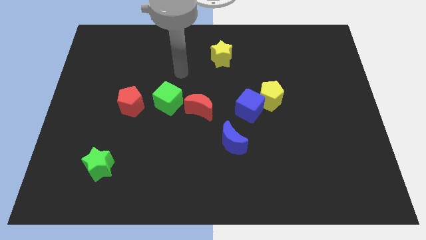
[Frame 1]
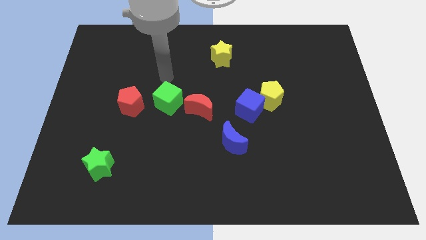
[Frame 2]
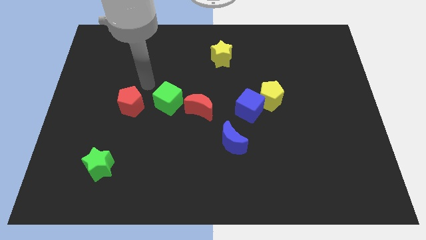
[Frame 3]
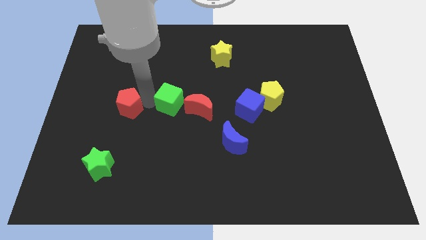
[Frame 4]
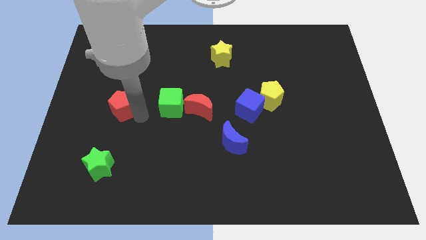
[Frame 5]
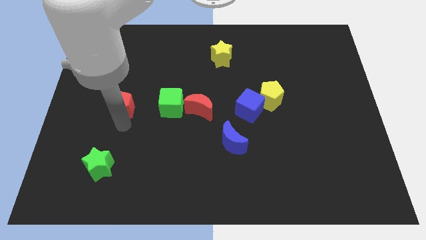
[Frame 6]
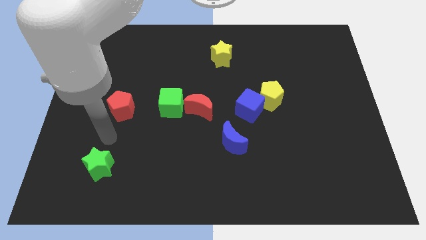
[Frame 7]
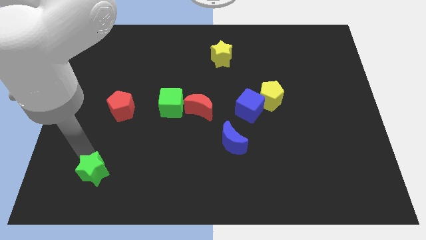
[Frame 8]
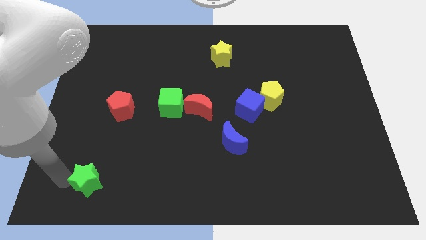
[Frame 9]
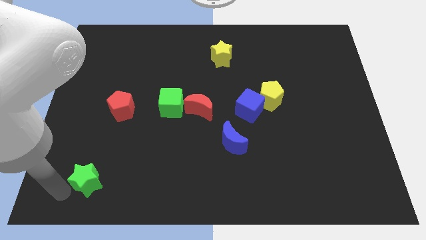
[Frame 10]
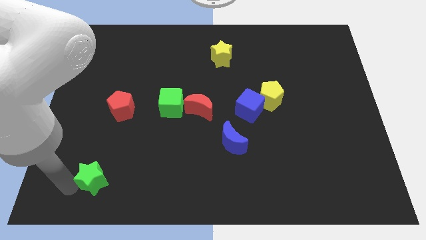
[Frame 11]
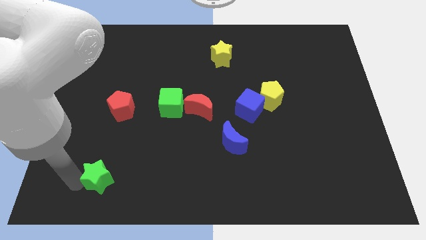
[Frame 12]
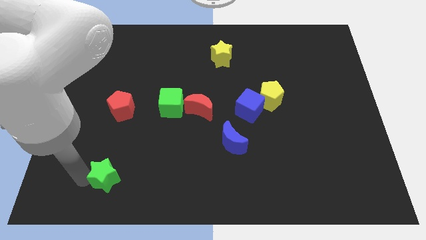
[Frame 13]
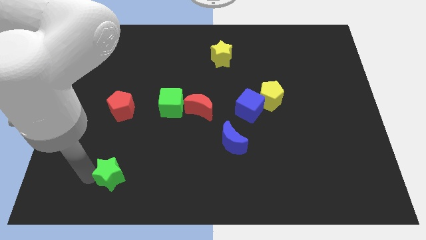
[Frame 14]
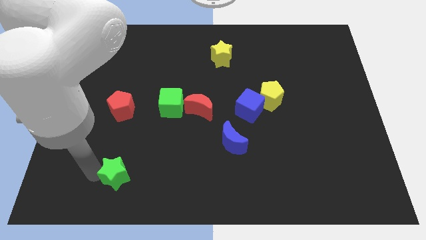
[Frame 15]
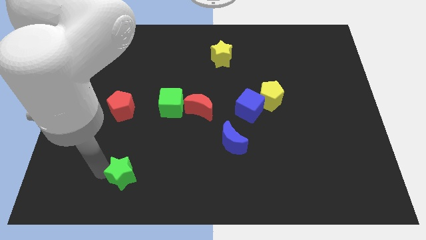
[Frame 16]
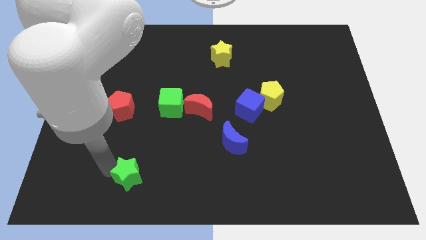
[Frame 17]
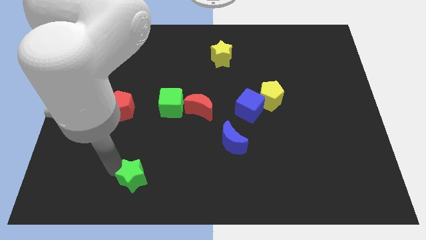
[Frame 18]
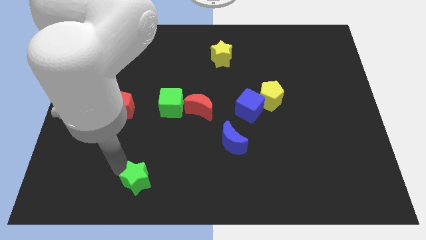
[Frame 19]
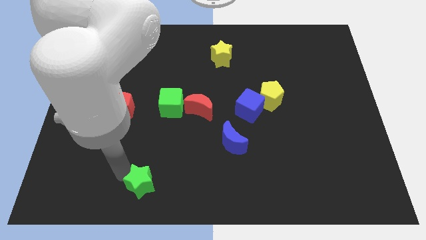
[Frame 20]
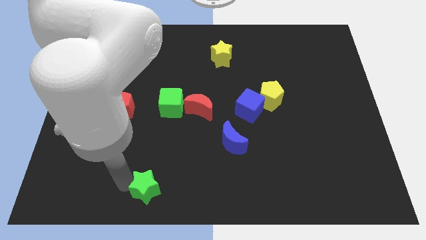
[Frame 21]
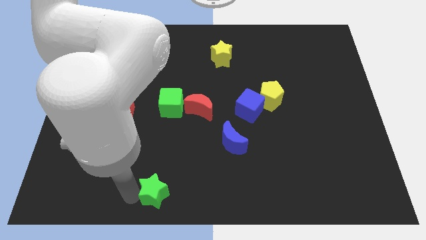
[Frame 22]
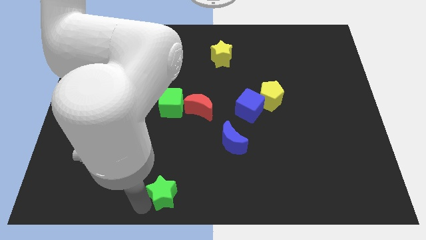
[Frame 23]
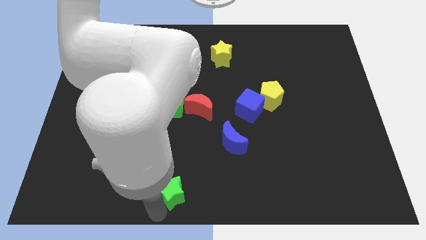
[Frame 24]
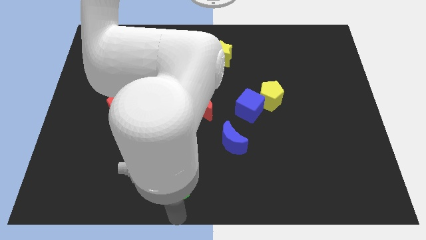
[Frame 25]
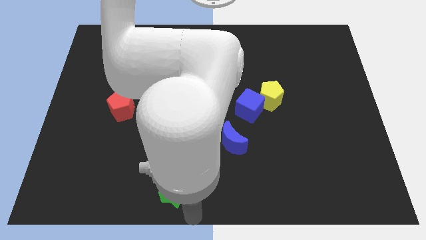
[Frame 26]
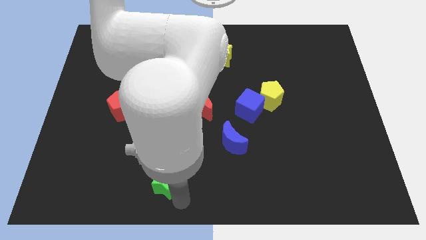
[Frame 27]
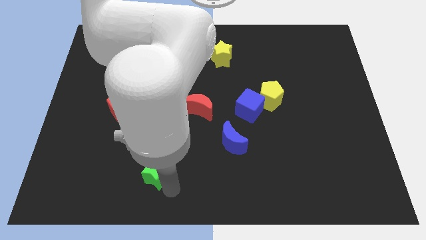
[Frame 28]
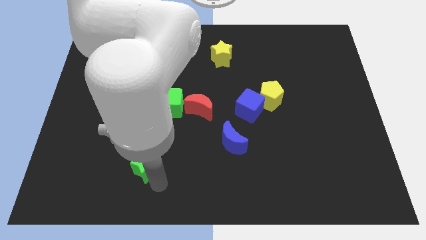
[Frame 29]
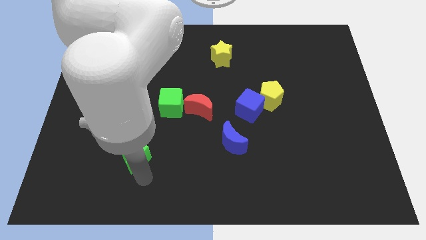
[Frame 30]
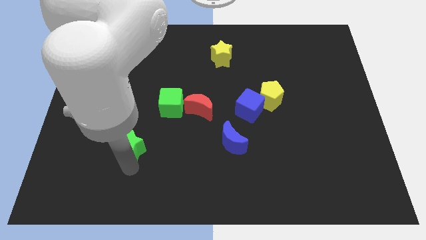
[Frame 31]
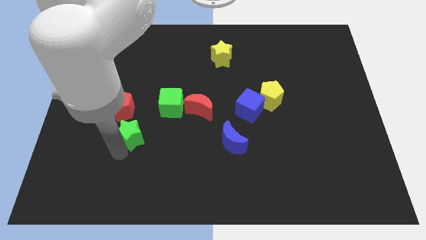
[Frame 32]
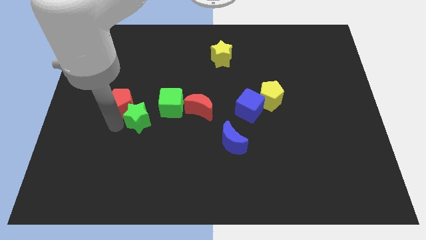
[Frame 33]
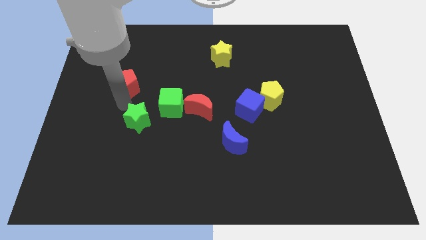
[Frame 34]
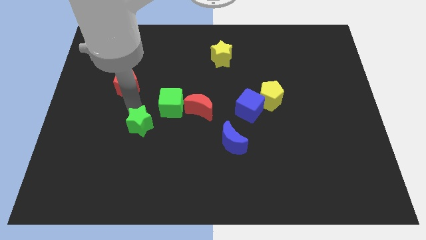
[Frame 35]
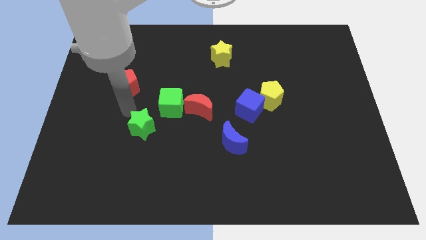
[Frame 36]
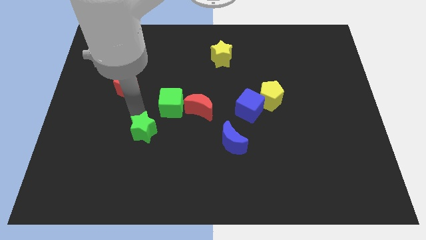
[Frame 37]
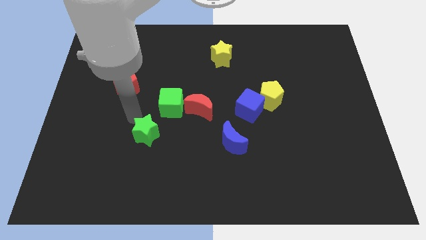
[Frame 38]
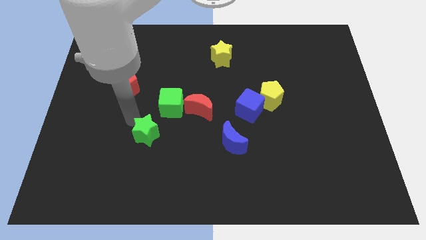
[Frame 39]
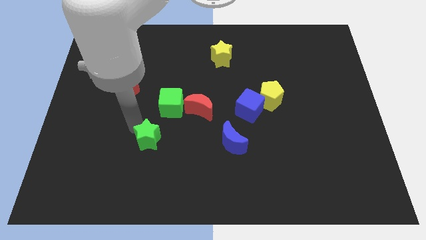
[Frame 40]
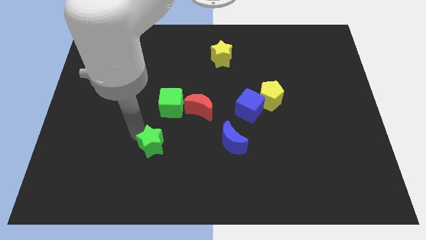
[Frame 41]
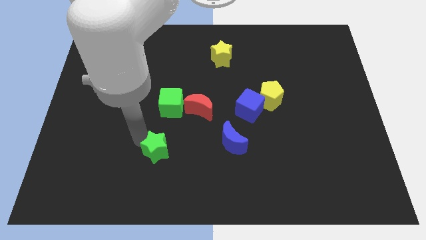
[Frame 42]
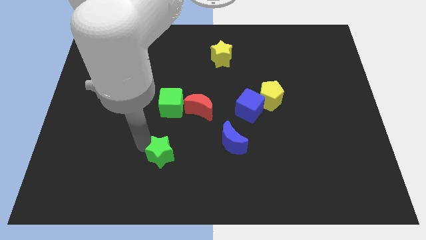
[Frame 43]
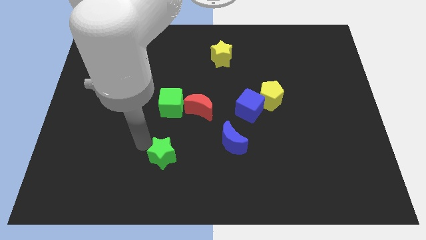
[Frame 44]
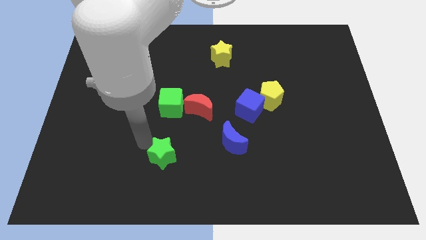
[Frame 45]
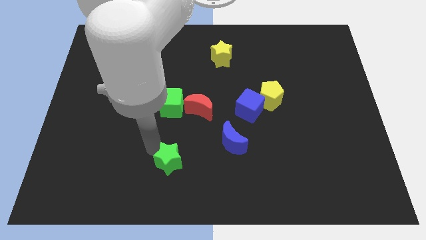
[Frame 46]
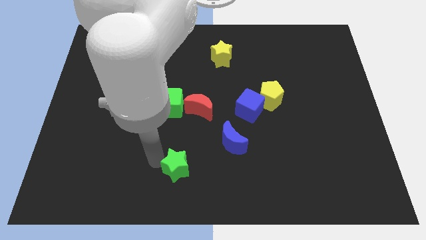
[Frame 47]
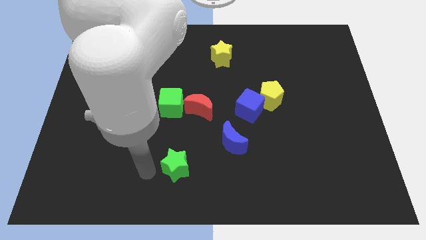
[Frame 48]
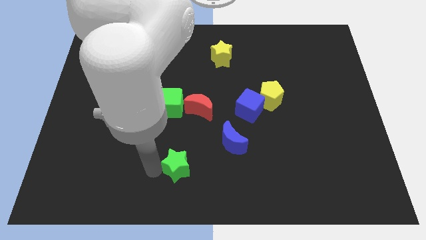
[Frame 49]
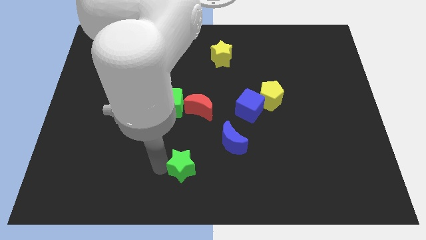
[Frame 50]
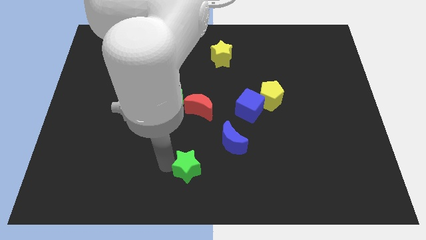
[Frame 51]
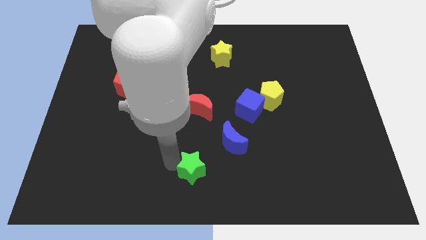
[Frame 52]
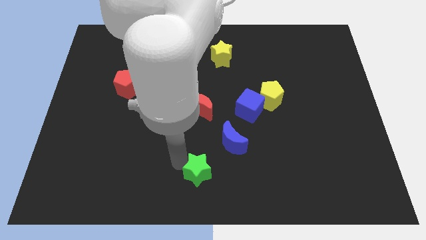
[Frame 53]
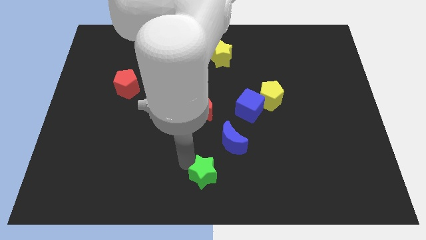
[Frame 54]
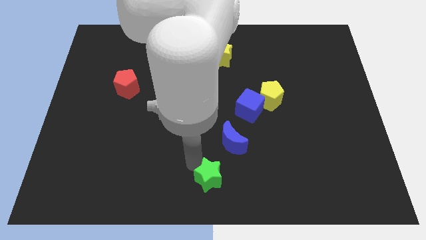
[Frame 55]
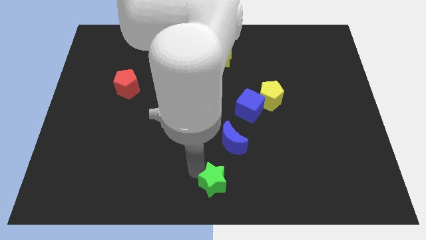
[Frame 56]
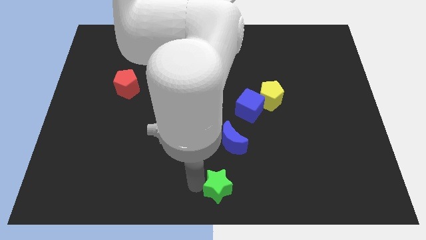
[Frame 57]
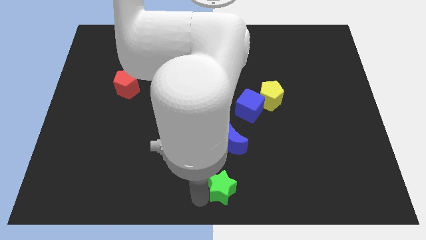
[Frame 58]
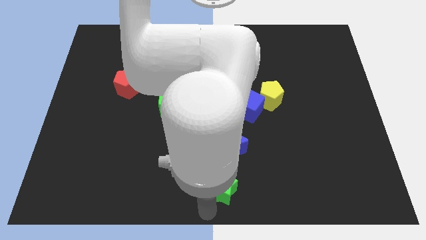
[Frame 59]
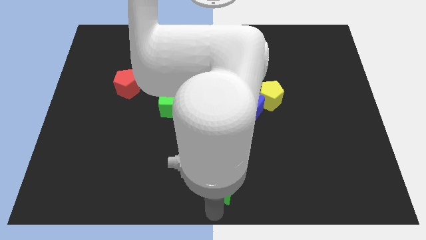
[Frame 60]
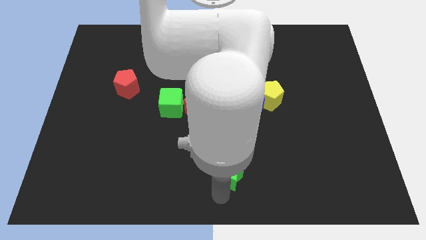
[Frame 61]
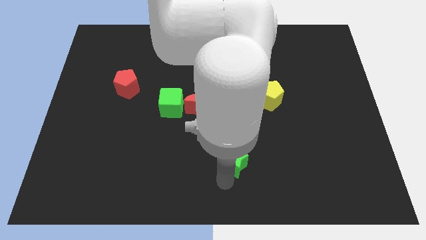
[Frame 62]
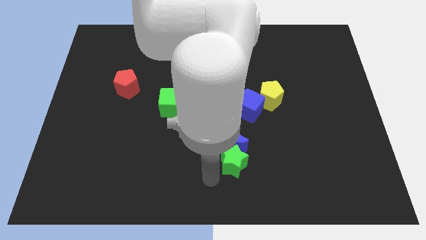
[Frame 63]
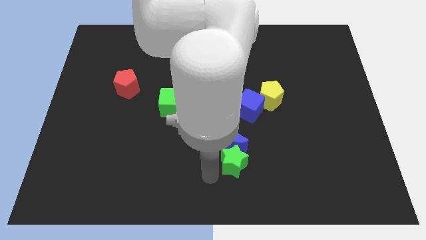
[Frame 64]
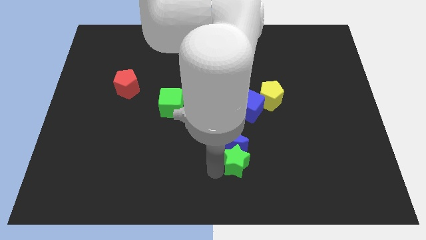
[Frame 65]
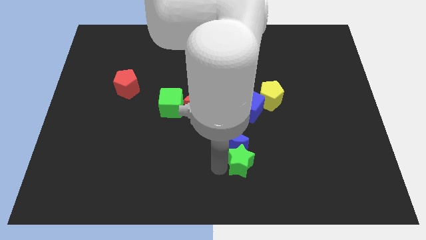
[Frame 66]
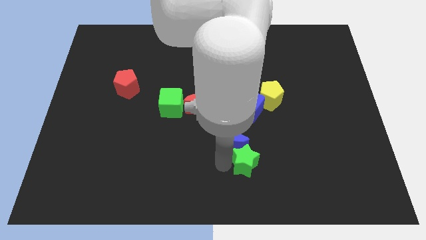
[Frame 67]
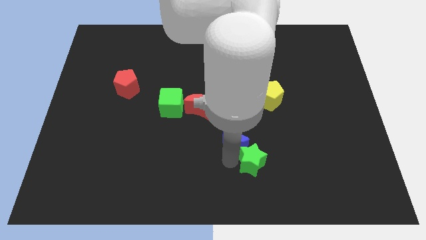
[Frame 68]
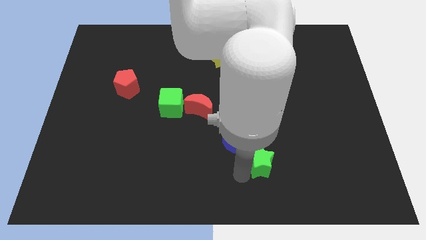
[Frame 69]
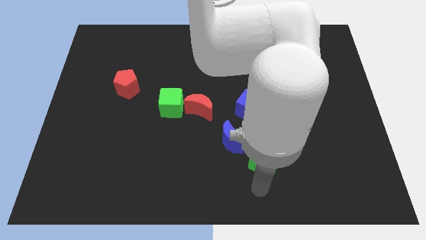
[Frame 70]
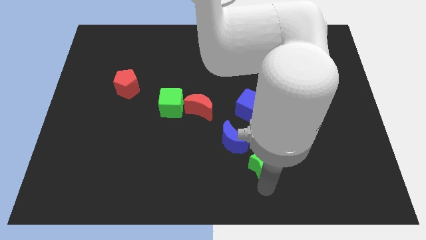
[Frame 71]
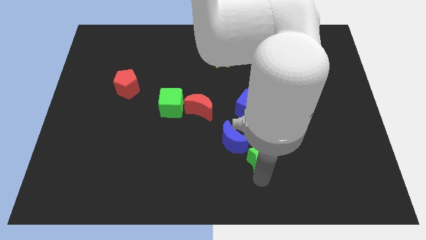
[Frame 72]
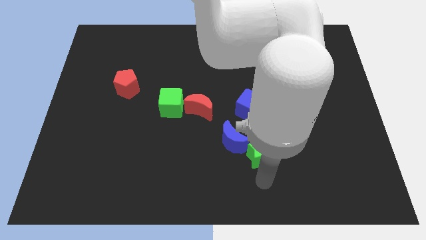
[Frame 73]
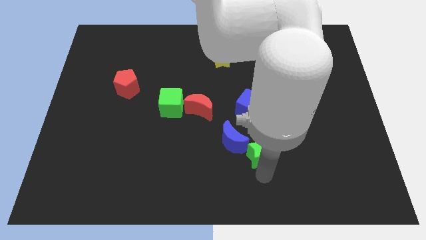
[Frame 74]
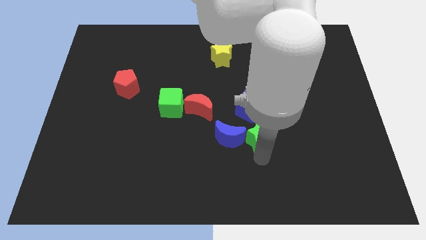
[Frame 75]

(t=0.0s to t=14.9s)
put the green star diagonally up and to the right of the blue moon
